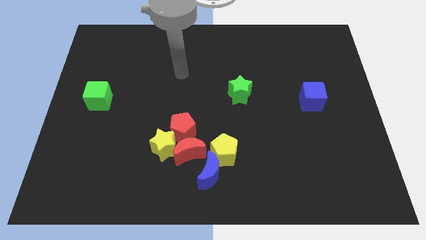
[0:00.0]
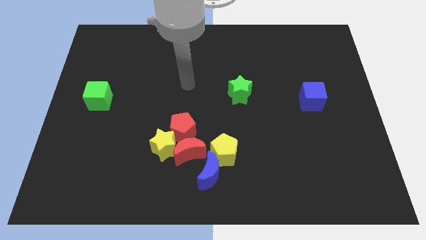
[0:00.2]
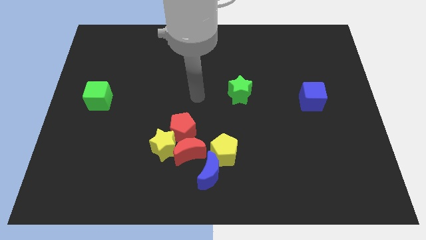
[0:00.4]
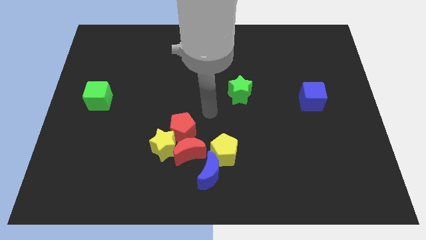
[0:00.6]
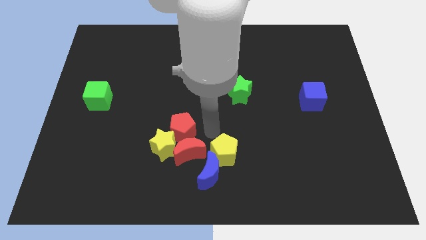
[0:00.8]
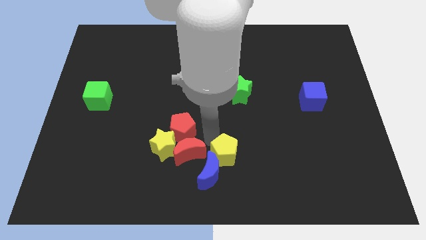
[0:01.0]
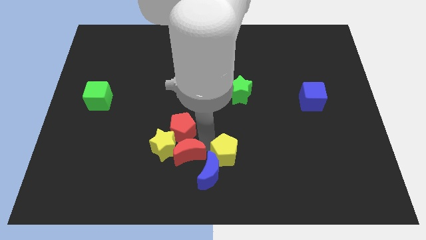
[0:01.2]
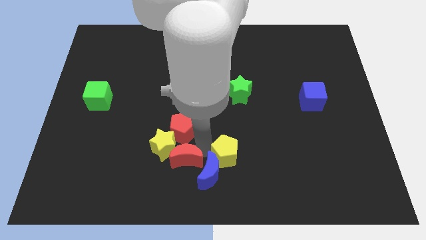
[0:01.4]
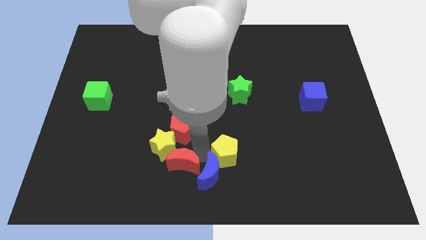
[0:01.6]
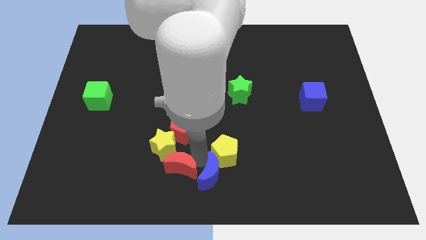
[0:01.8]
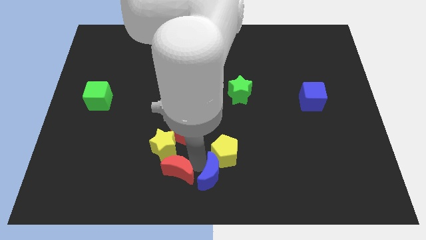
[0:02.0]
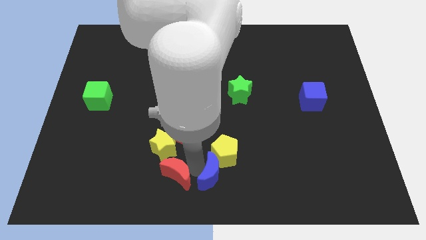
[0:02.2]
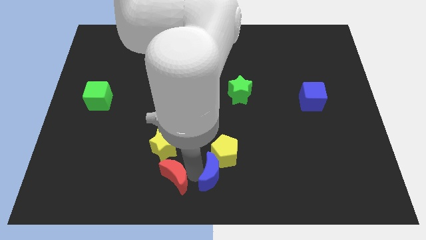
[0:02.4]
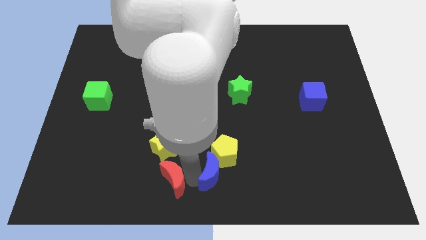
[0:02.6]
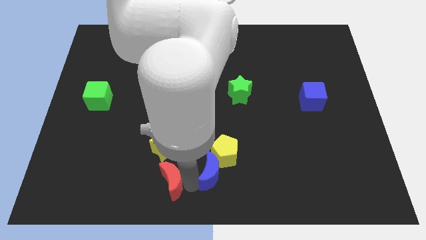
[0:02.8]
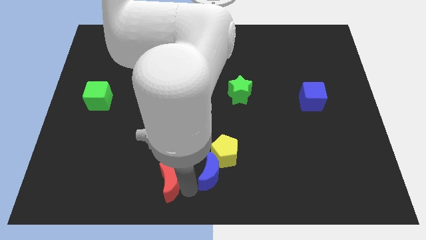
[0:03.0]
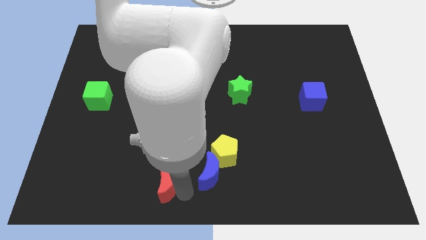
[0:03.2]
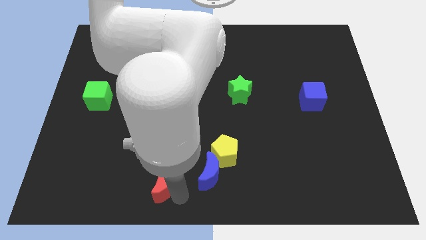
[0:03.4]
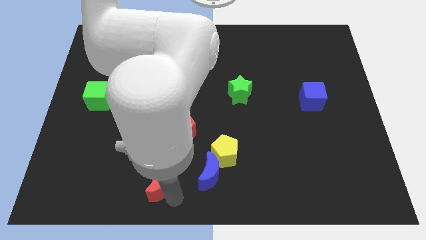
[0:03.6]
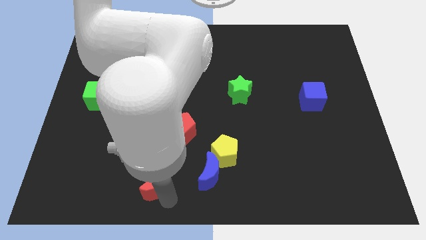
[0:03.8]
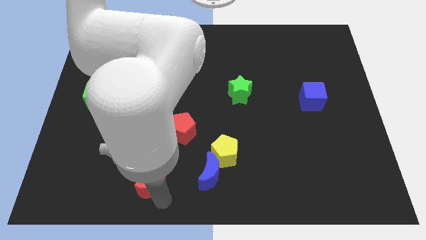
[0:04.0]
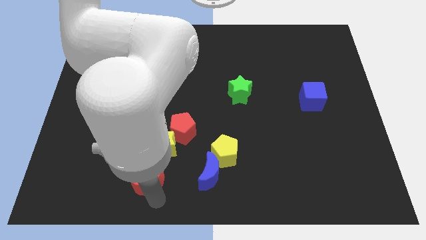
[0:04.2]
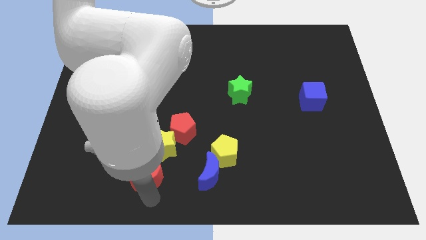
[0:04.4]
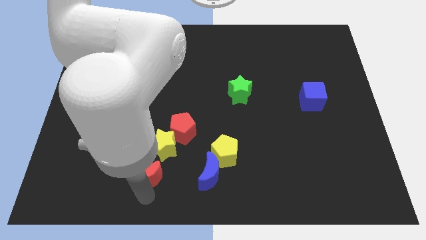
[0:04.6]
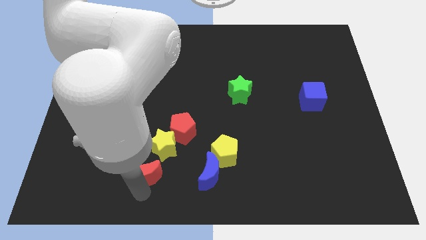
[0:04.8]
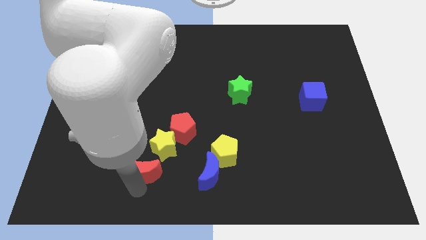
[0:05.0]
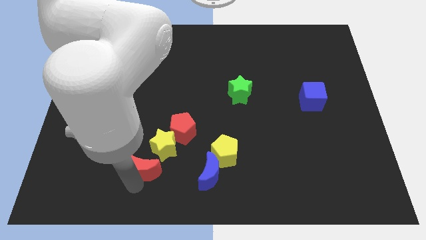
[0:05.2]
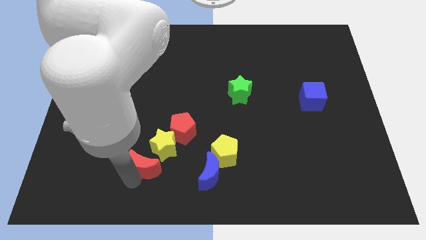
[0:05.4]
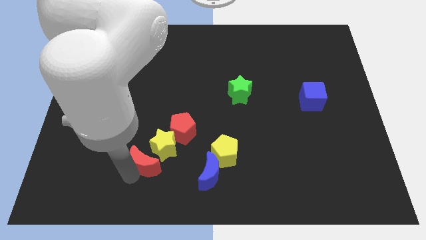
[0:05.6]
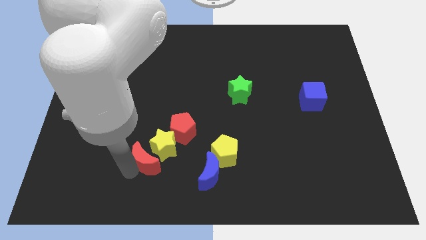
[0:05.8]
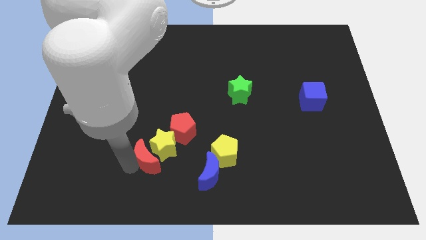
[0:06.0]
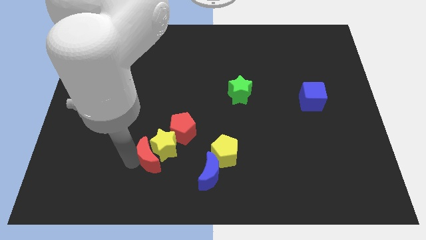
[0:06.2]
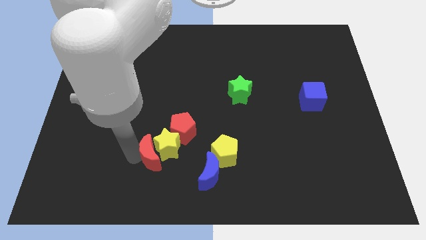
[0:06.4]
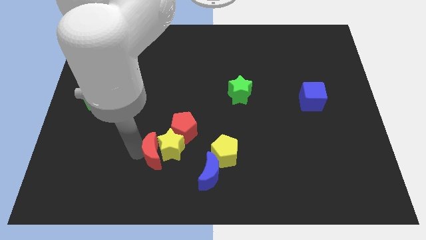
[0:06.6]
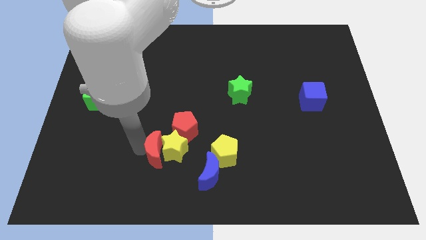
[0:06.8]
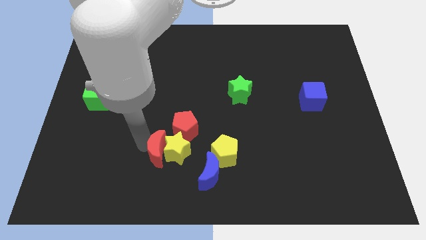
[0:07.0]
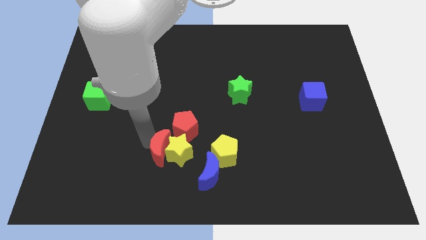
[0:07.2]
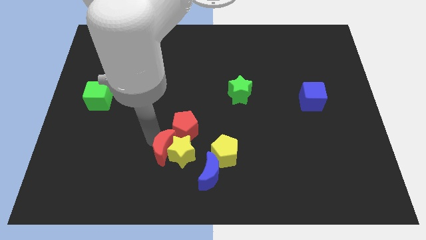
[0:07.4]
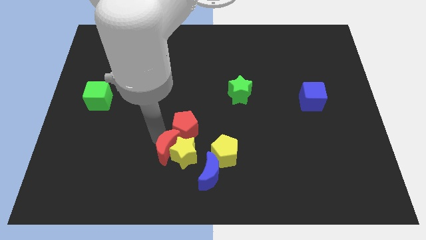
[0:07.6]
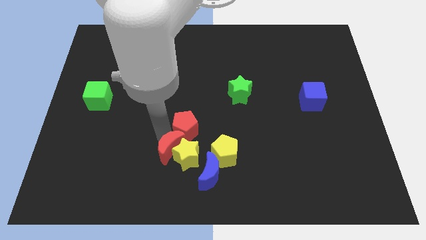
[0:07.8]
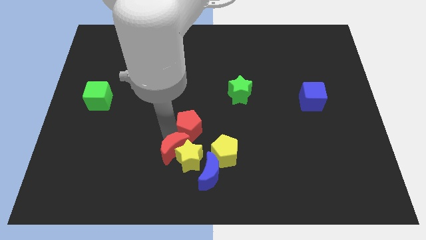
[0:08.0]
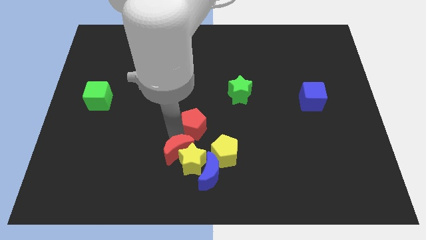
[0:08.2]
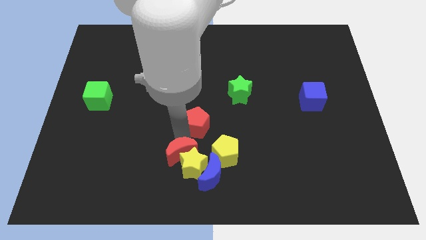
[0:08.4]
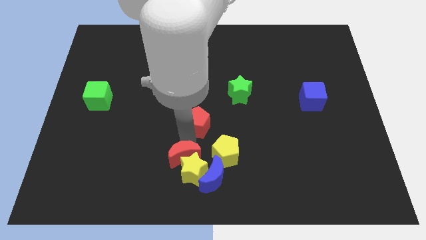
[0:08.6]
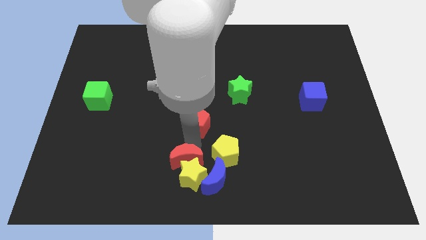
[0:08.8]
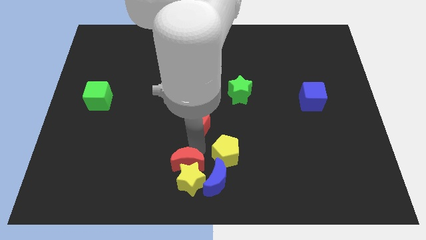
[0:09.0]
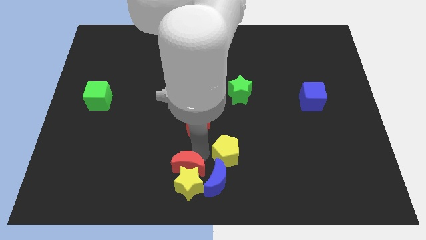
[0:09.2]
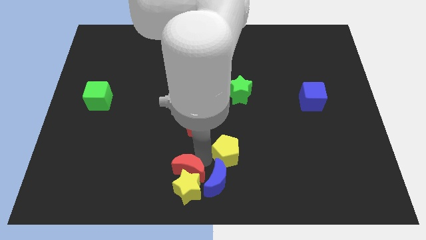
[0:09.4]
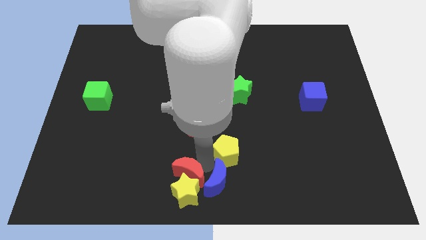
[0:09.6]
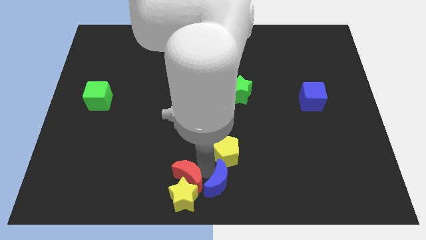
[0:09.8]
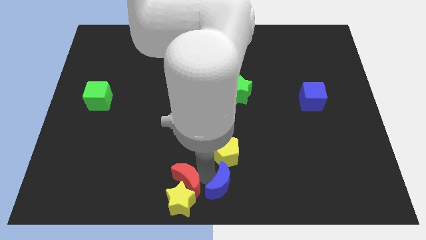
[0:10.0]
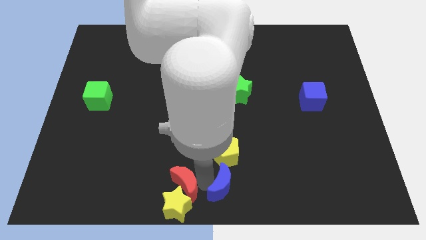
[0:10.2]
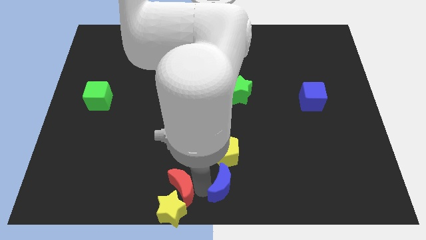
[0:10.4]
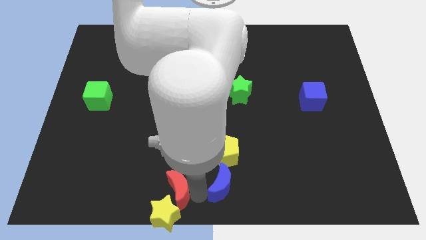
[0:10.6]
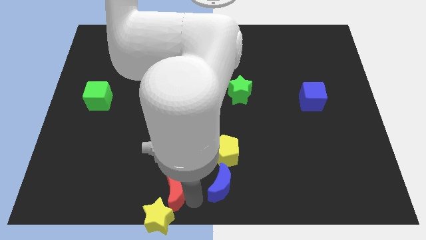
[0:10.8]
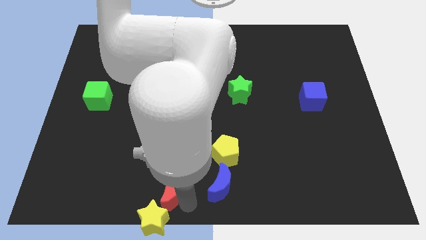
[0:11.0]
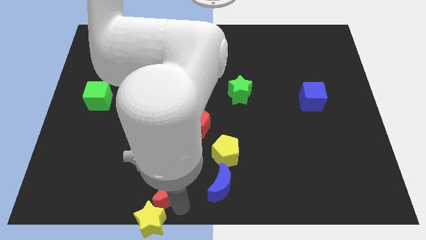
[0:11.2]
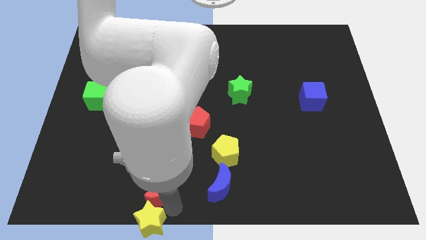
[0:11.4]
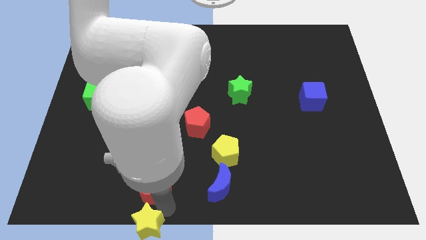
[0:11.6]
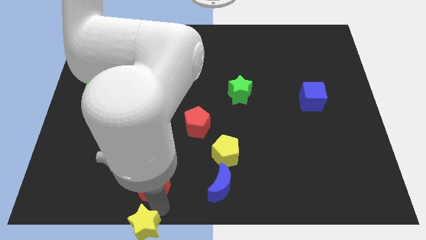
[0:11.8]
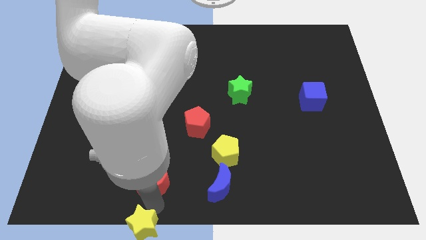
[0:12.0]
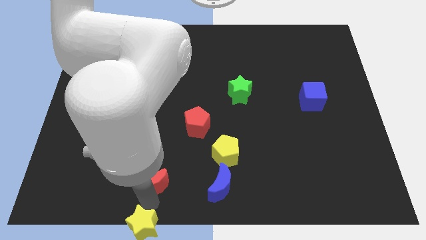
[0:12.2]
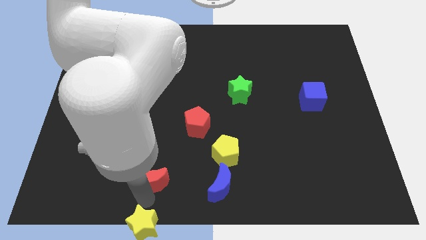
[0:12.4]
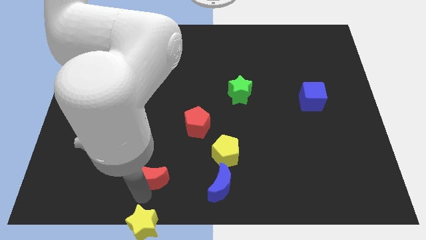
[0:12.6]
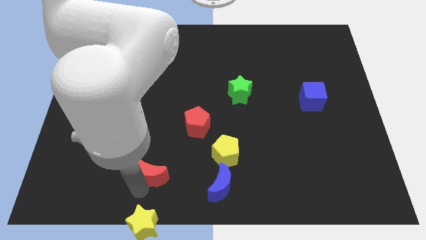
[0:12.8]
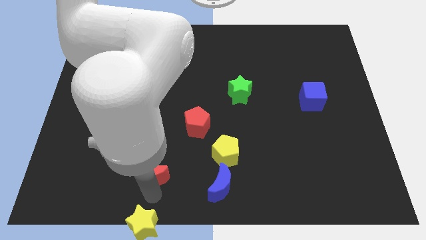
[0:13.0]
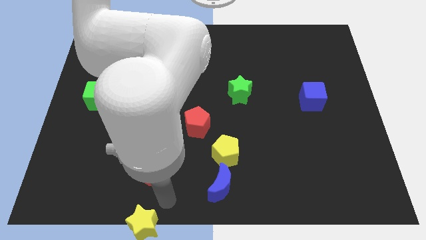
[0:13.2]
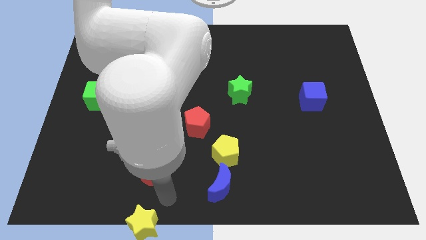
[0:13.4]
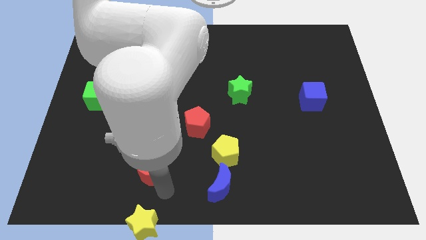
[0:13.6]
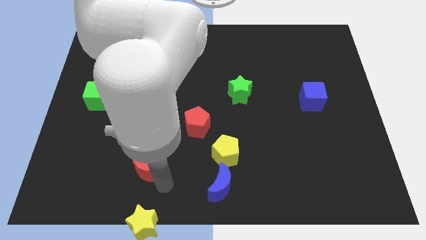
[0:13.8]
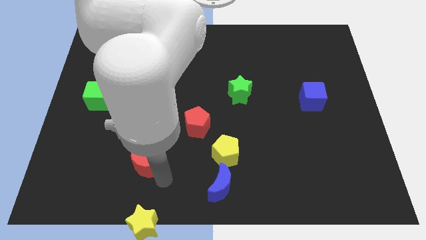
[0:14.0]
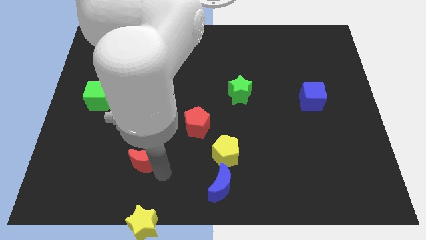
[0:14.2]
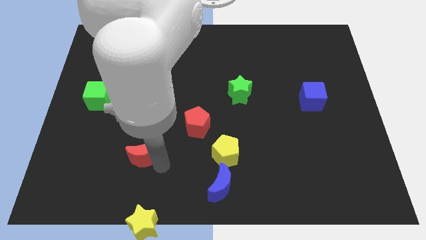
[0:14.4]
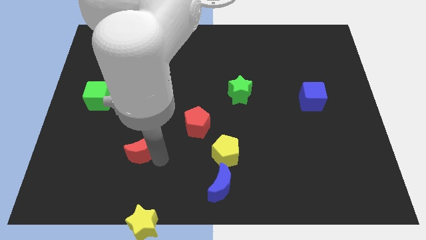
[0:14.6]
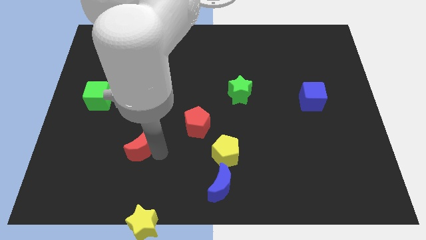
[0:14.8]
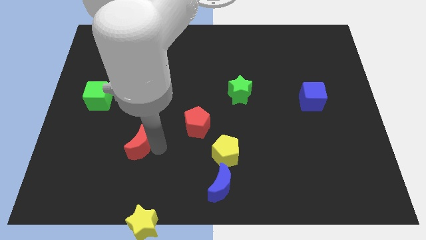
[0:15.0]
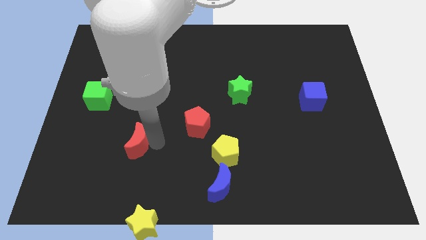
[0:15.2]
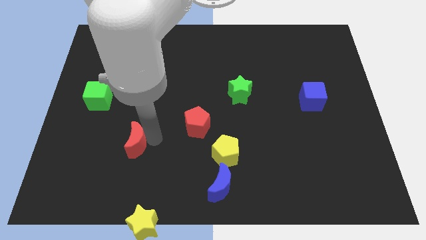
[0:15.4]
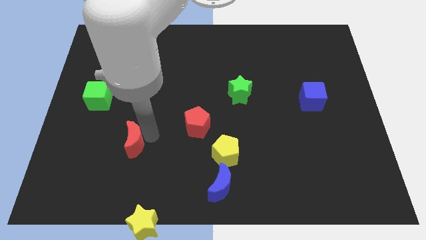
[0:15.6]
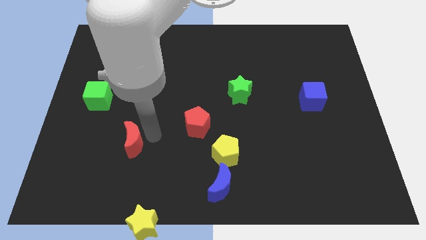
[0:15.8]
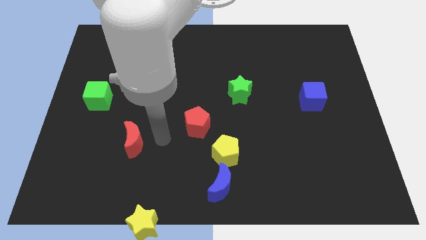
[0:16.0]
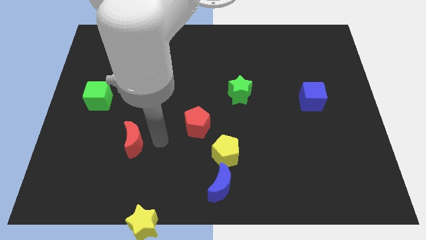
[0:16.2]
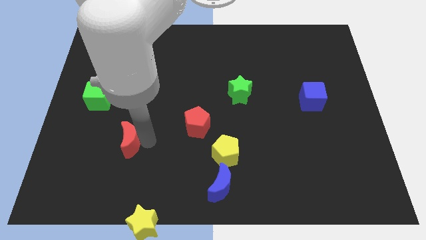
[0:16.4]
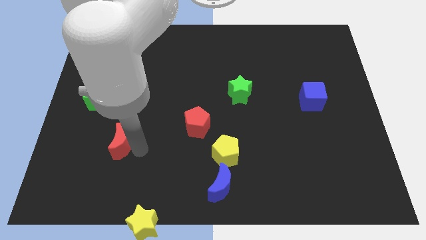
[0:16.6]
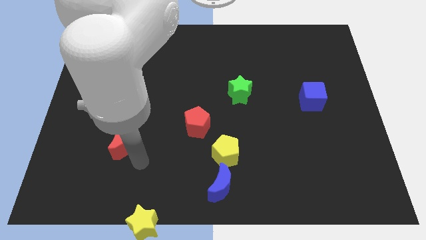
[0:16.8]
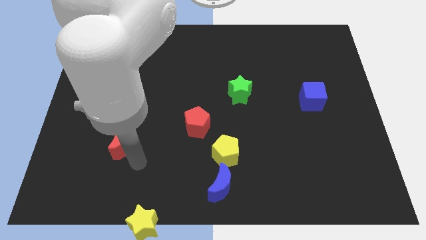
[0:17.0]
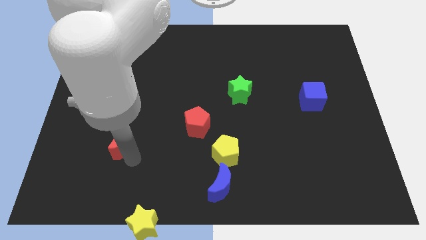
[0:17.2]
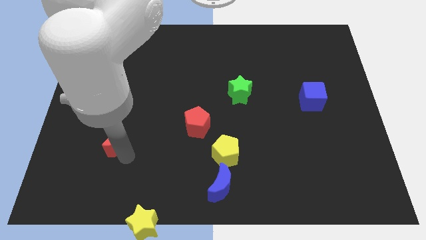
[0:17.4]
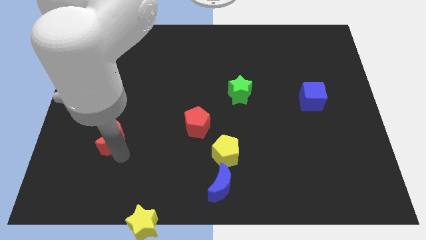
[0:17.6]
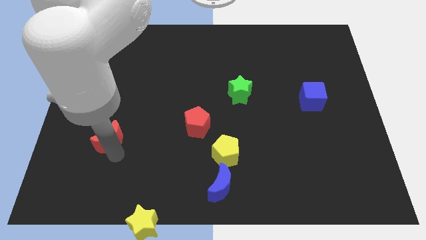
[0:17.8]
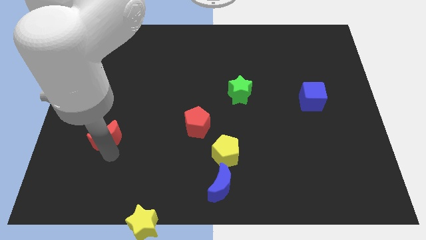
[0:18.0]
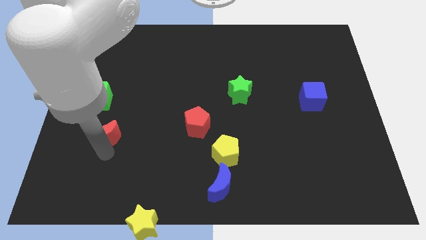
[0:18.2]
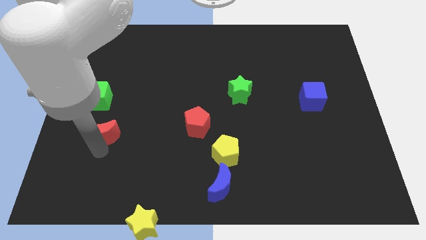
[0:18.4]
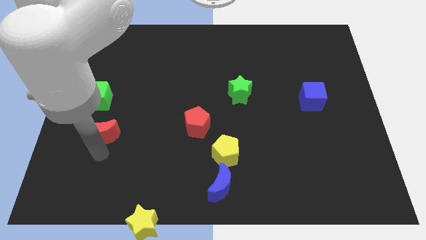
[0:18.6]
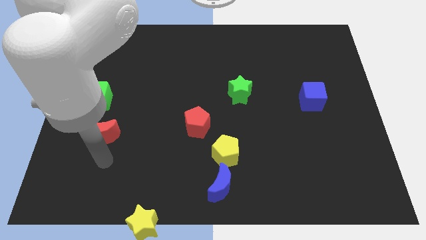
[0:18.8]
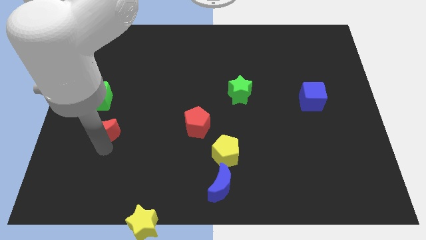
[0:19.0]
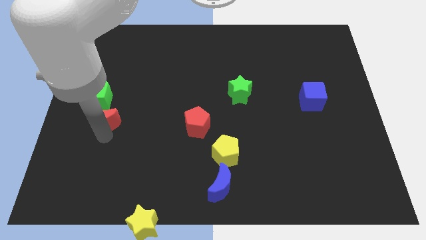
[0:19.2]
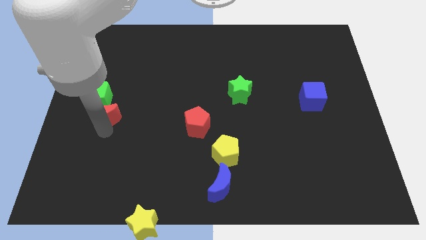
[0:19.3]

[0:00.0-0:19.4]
push the red moon close to the green cube
